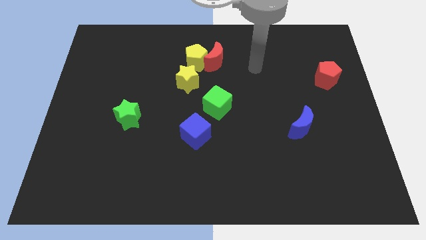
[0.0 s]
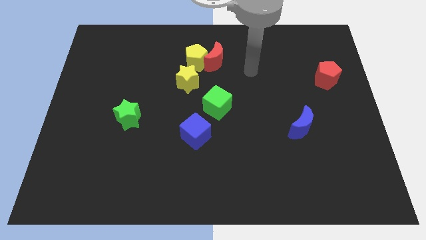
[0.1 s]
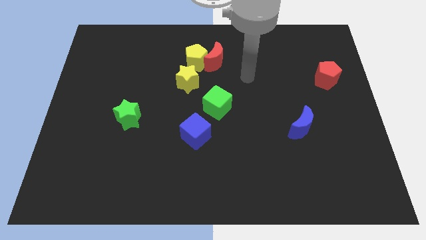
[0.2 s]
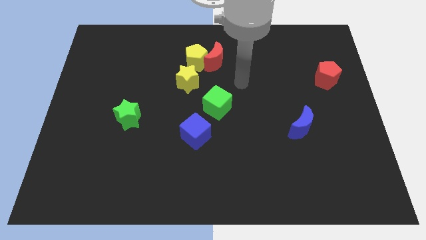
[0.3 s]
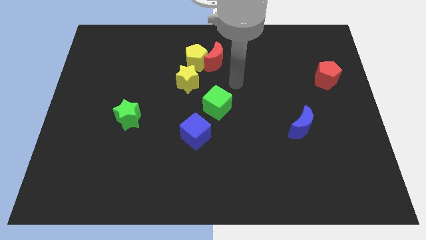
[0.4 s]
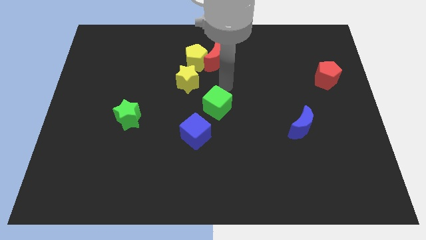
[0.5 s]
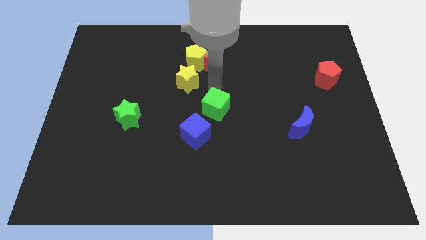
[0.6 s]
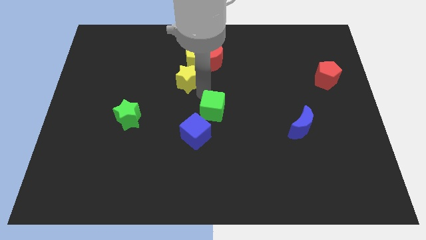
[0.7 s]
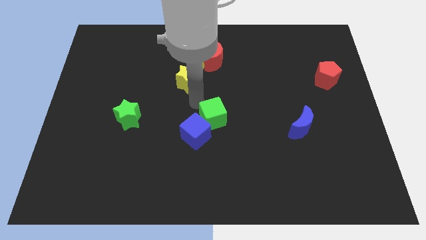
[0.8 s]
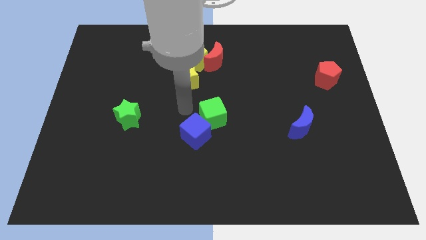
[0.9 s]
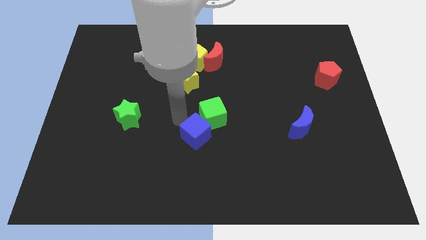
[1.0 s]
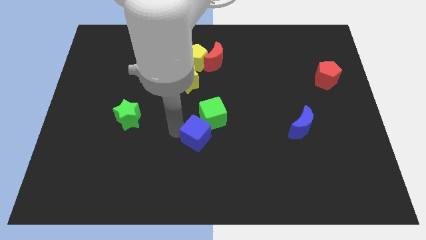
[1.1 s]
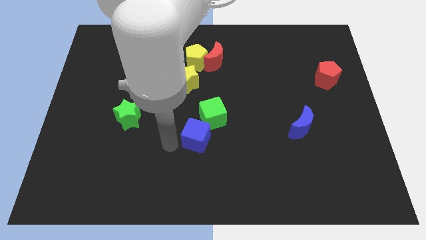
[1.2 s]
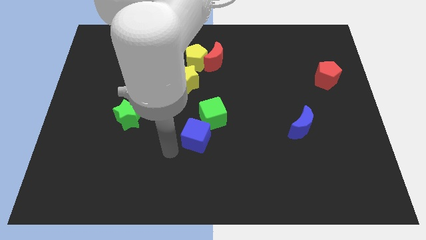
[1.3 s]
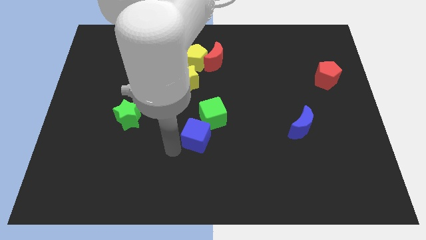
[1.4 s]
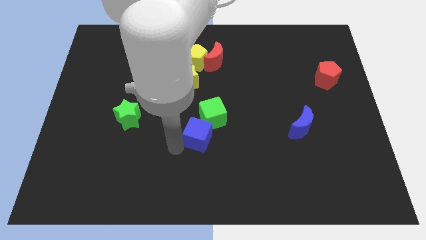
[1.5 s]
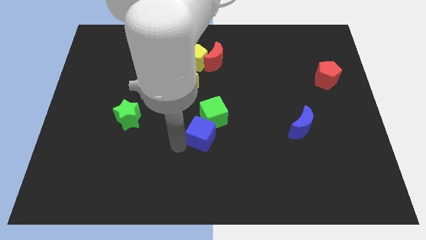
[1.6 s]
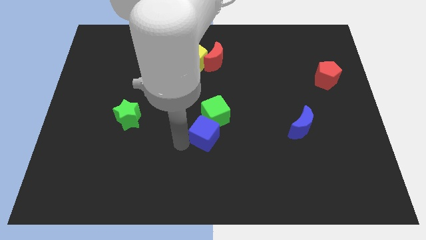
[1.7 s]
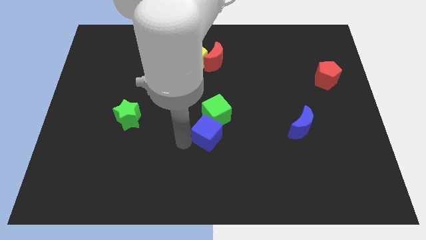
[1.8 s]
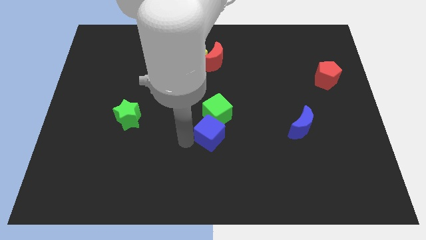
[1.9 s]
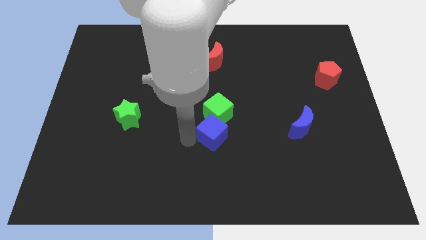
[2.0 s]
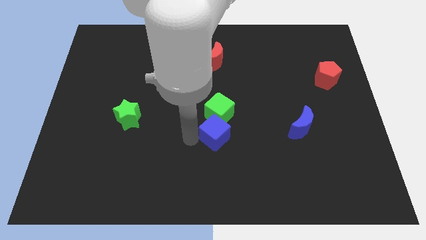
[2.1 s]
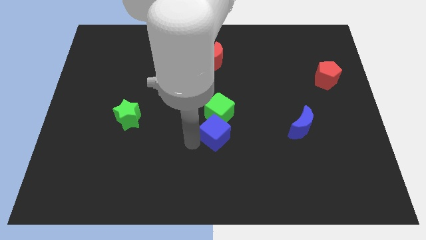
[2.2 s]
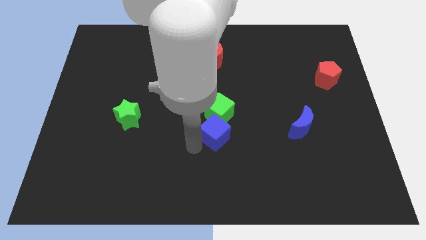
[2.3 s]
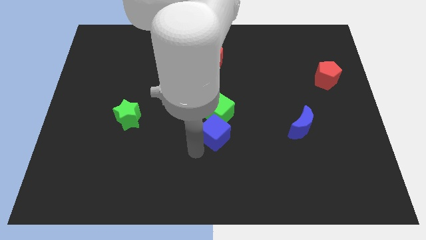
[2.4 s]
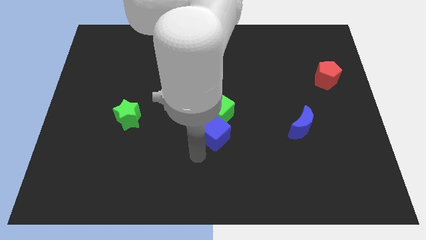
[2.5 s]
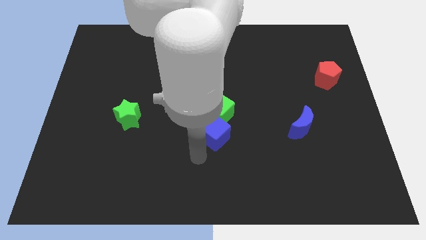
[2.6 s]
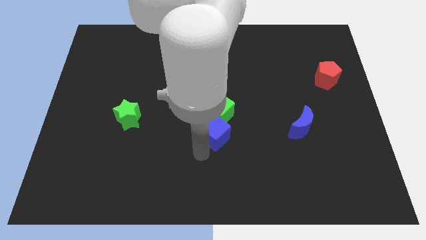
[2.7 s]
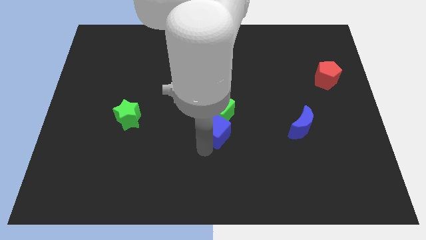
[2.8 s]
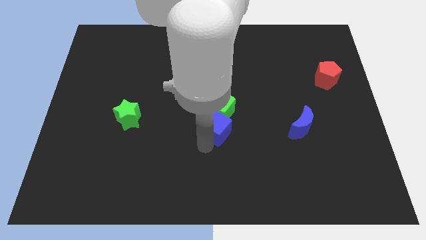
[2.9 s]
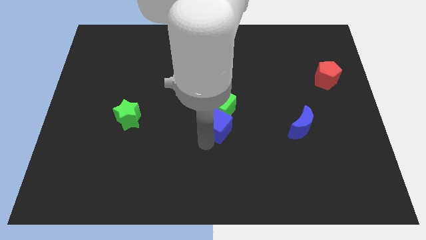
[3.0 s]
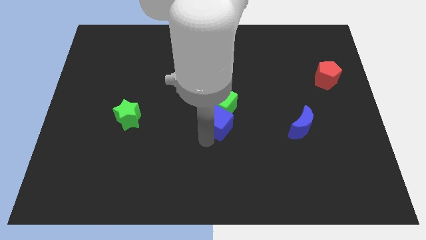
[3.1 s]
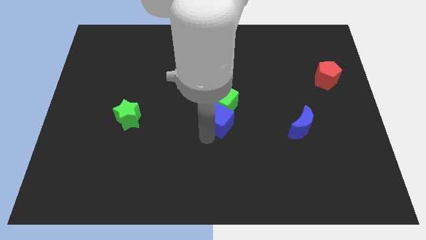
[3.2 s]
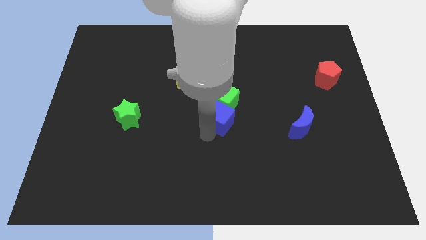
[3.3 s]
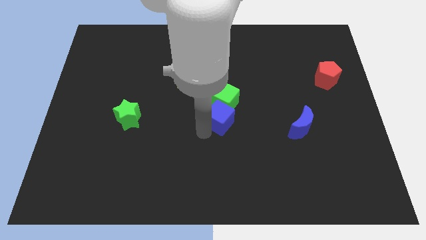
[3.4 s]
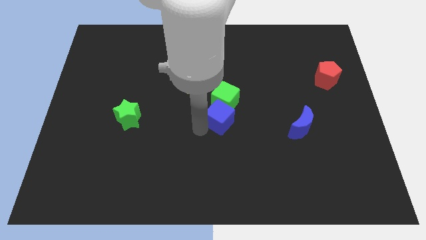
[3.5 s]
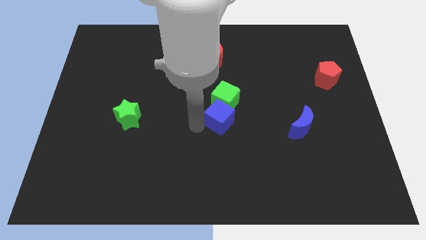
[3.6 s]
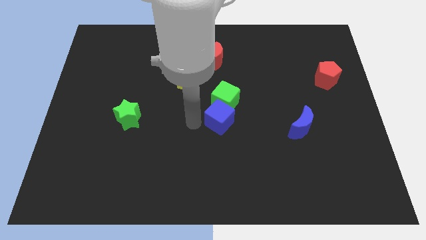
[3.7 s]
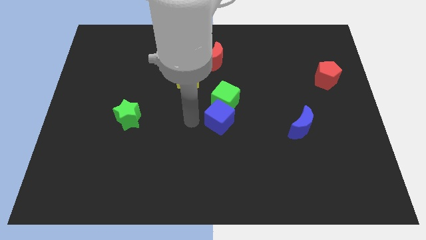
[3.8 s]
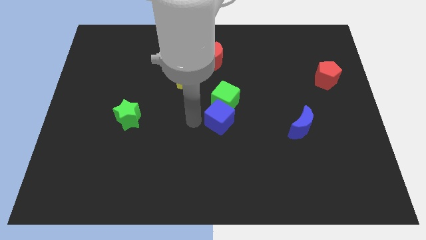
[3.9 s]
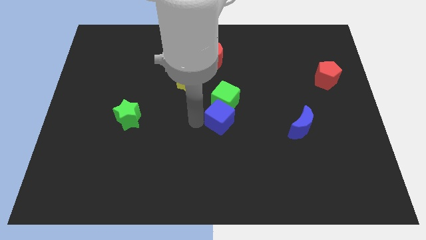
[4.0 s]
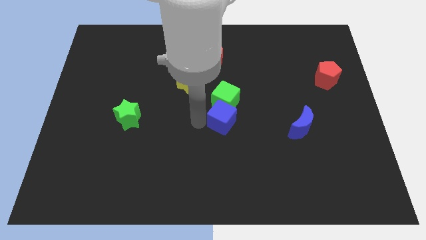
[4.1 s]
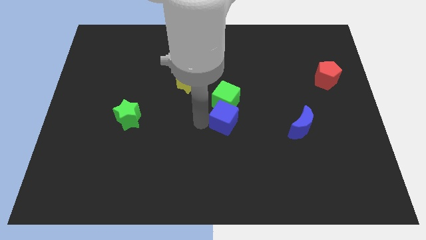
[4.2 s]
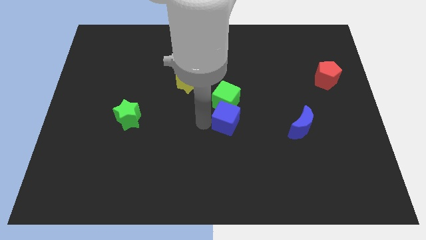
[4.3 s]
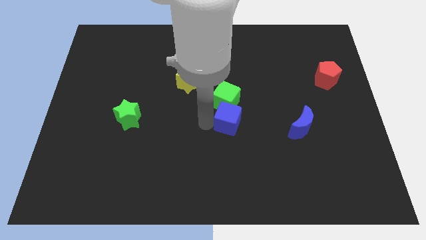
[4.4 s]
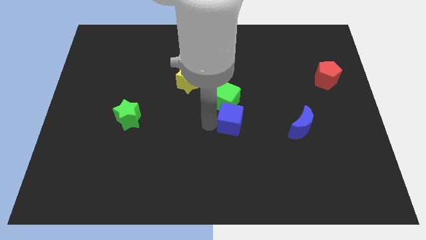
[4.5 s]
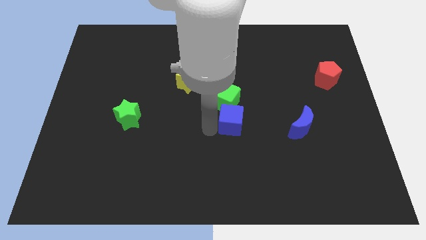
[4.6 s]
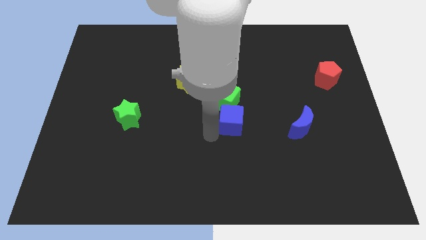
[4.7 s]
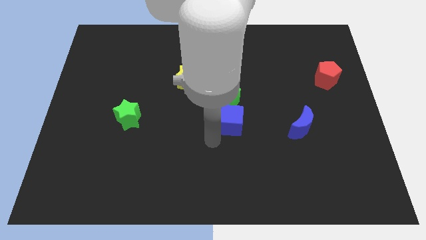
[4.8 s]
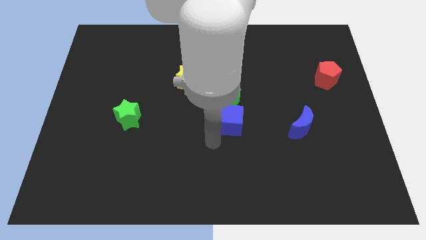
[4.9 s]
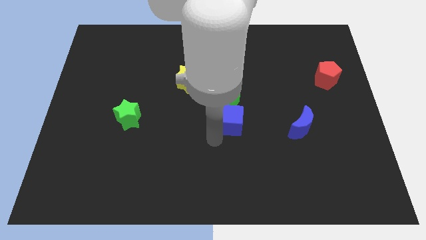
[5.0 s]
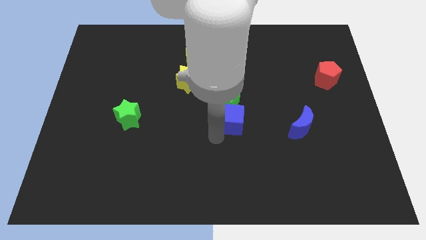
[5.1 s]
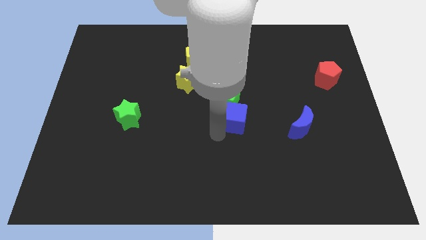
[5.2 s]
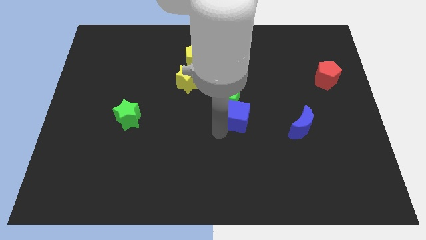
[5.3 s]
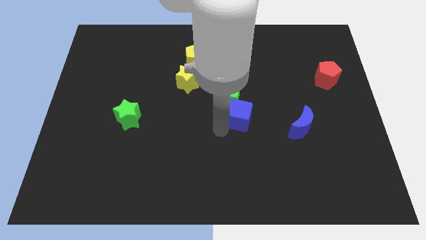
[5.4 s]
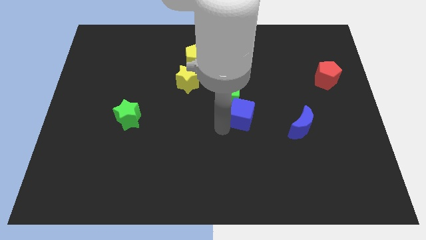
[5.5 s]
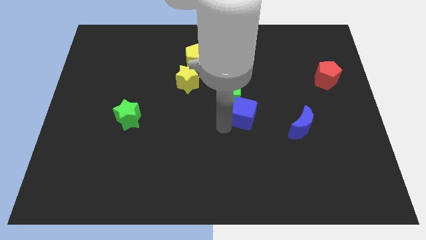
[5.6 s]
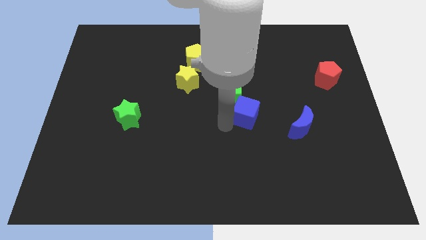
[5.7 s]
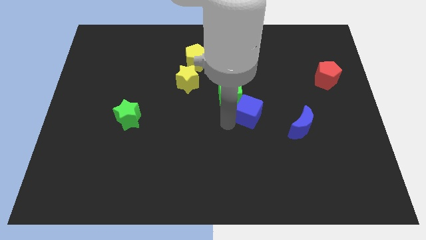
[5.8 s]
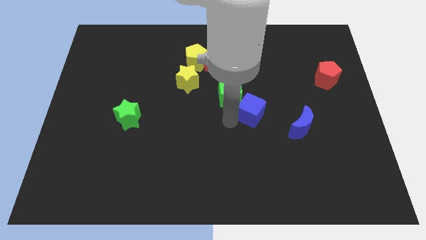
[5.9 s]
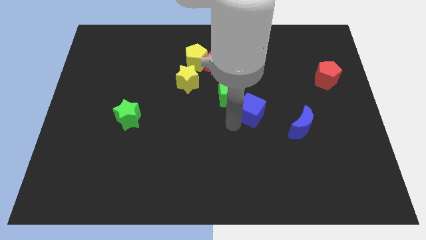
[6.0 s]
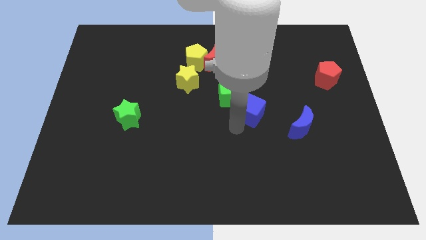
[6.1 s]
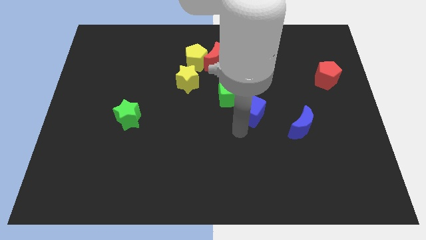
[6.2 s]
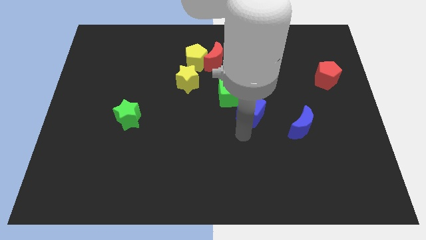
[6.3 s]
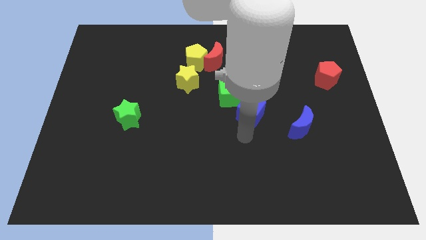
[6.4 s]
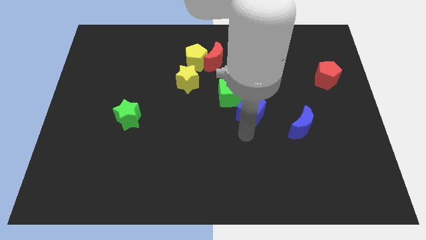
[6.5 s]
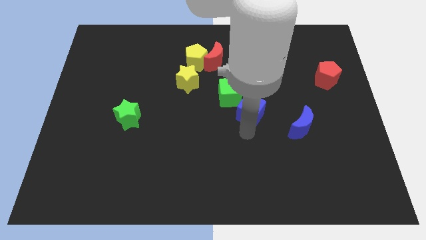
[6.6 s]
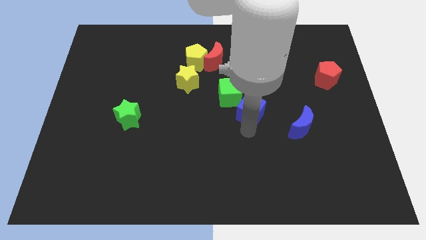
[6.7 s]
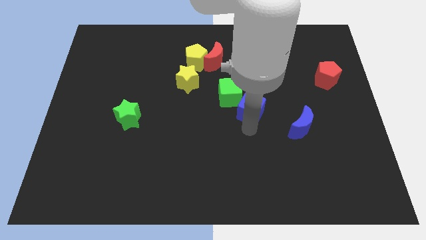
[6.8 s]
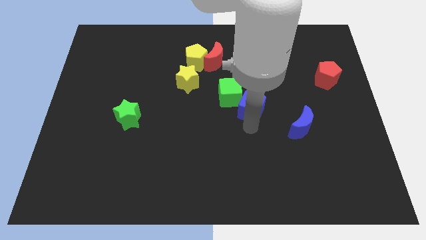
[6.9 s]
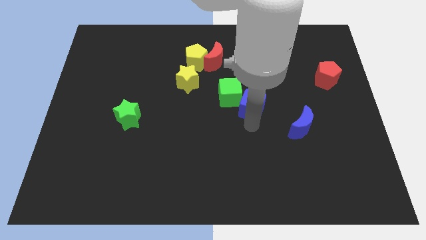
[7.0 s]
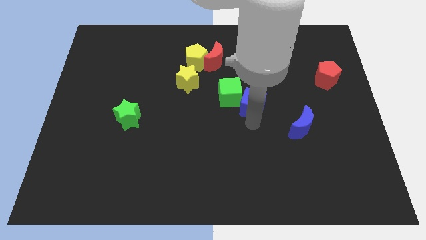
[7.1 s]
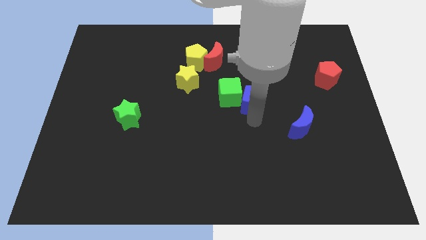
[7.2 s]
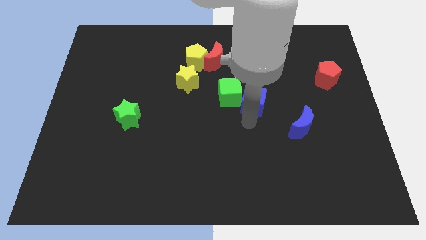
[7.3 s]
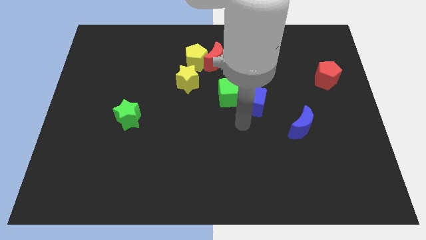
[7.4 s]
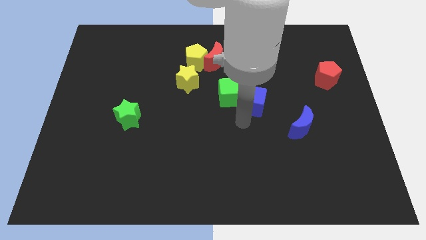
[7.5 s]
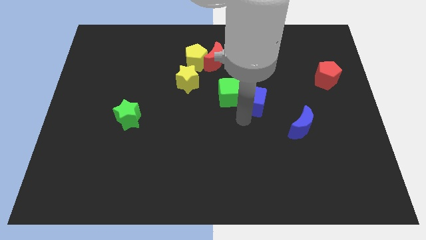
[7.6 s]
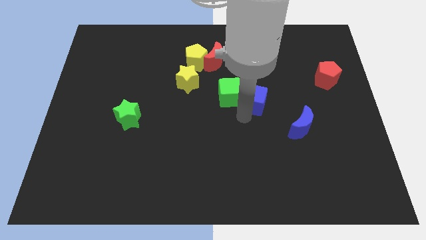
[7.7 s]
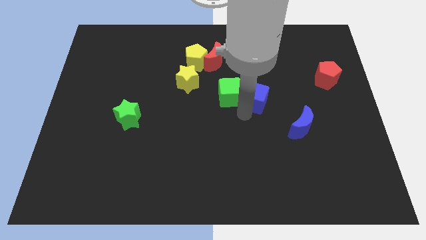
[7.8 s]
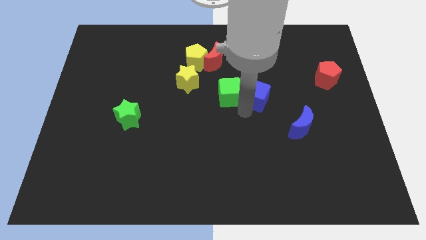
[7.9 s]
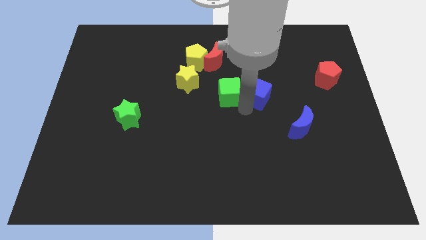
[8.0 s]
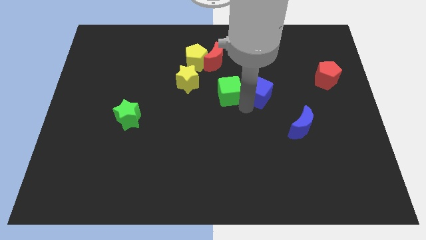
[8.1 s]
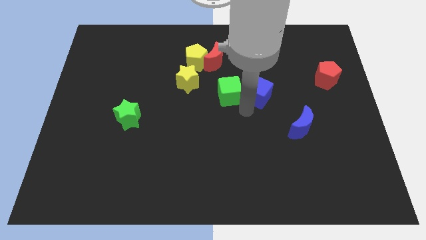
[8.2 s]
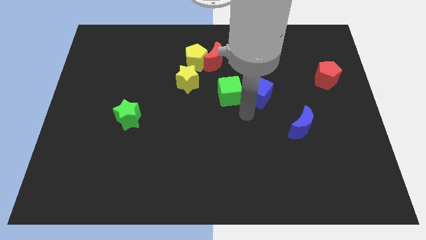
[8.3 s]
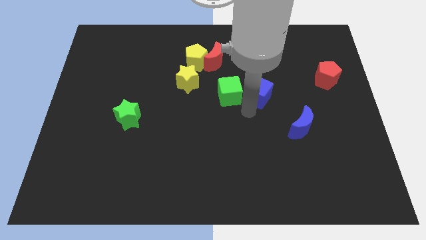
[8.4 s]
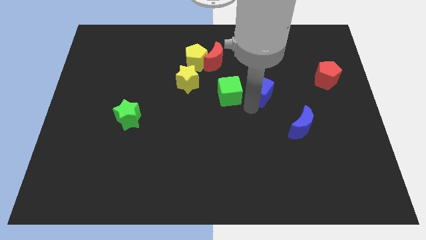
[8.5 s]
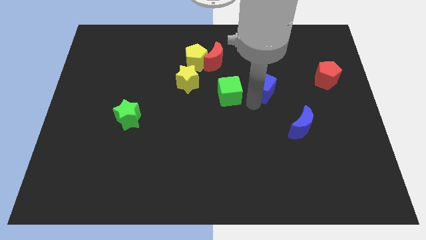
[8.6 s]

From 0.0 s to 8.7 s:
push the blue cube up and to the right diagonally
